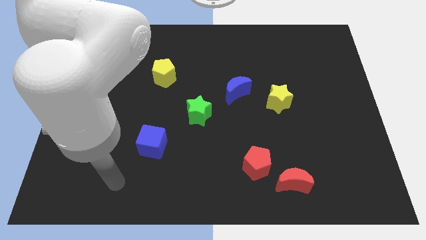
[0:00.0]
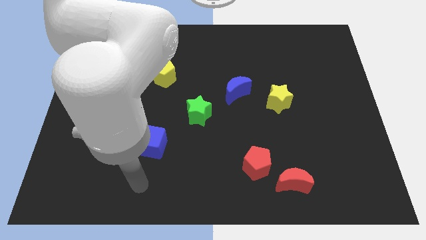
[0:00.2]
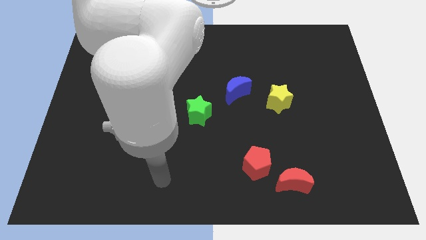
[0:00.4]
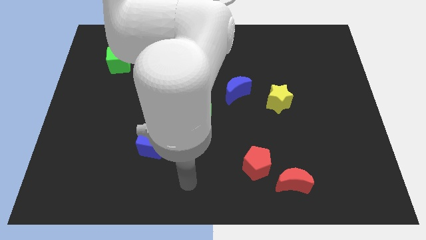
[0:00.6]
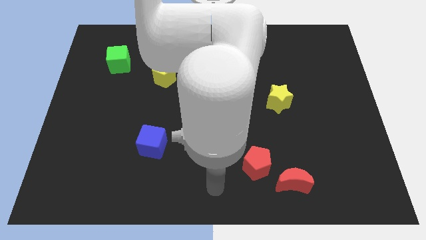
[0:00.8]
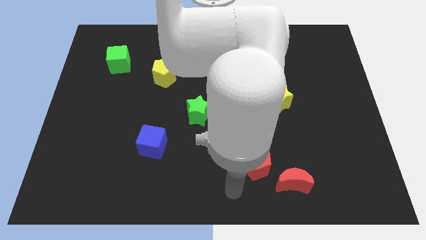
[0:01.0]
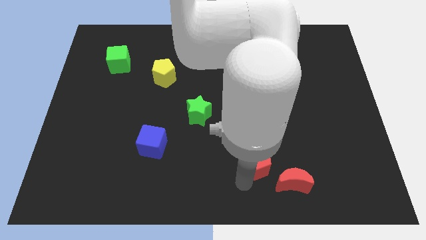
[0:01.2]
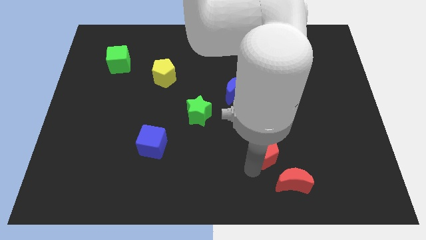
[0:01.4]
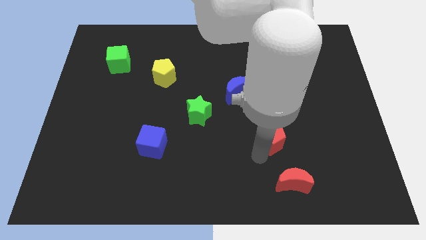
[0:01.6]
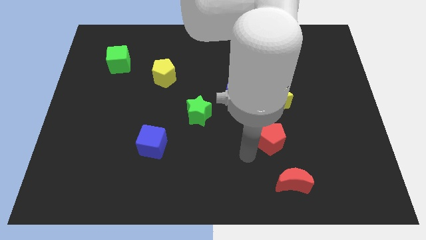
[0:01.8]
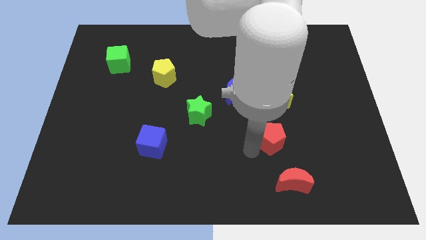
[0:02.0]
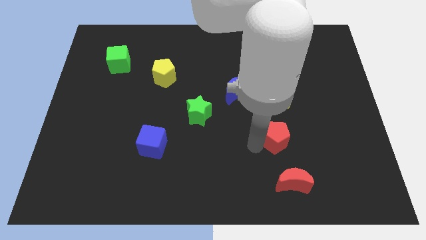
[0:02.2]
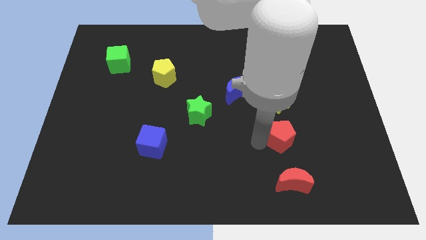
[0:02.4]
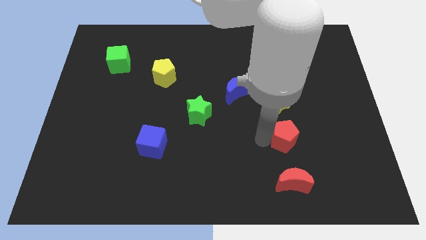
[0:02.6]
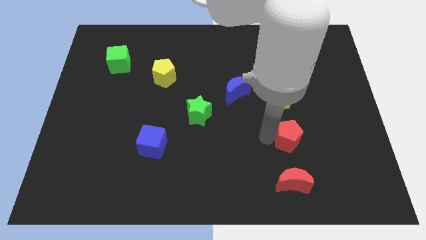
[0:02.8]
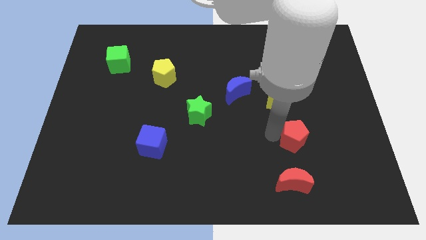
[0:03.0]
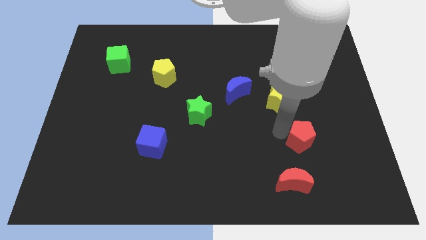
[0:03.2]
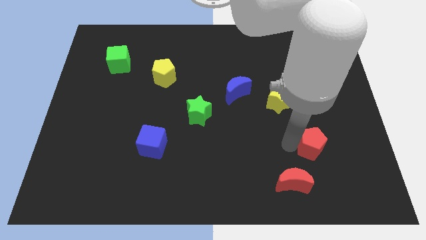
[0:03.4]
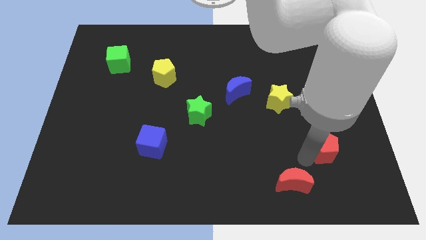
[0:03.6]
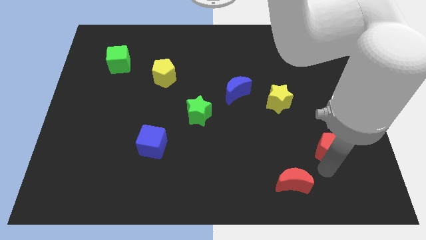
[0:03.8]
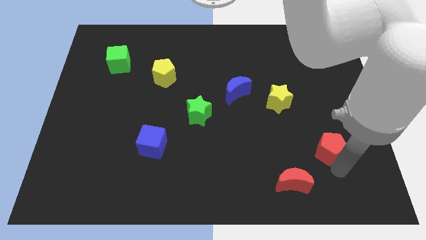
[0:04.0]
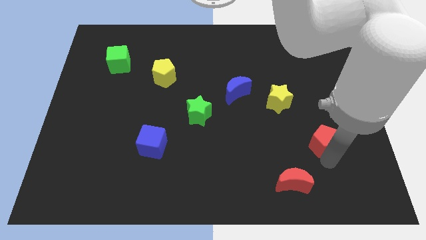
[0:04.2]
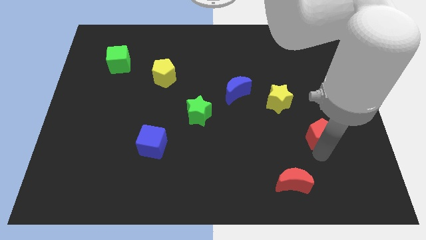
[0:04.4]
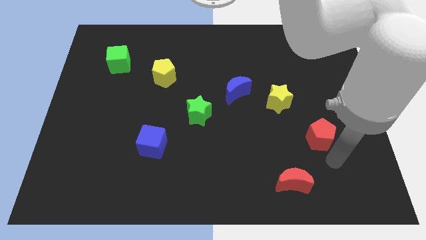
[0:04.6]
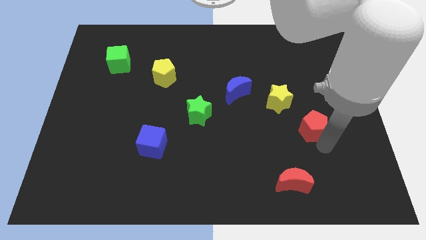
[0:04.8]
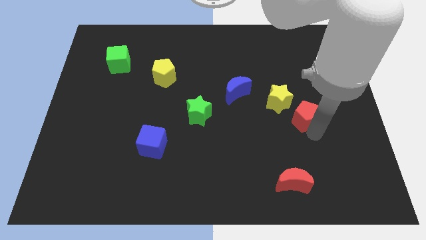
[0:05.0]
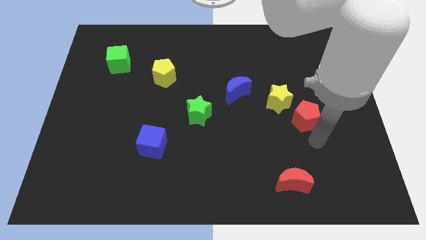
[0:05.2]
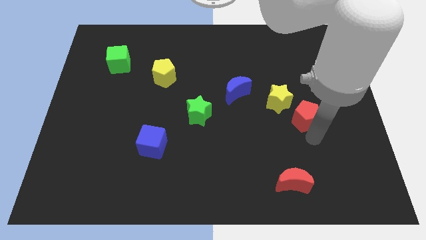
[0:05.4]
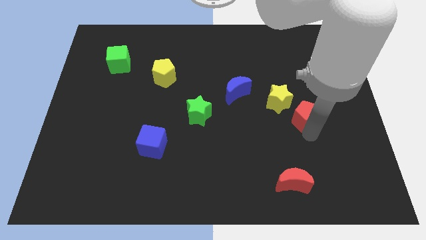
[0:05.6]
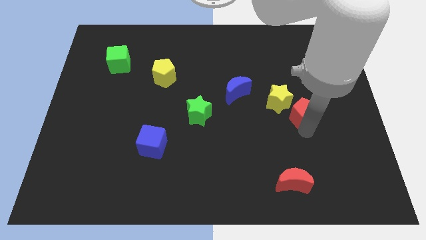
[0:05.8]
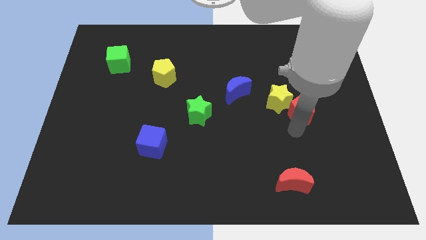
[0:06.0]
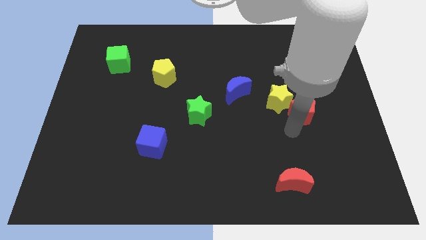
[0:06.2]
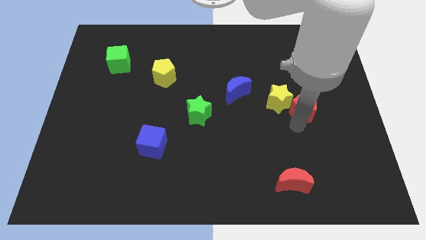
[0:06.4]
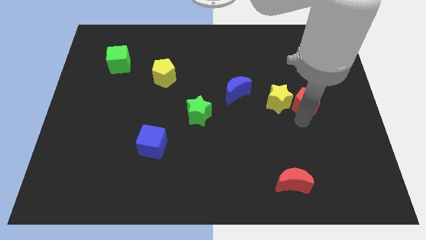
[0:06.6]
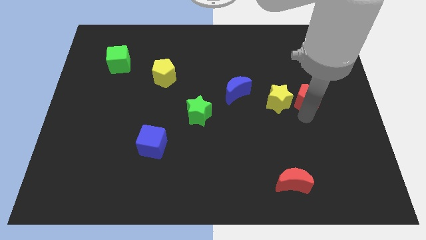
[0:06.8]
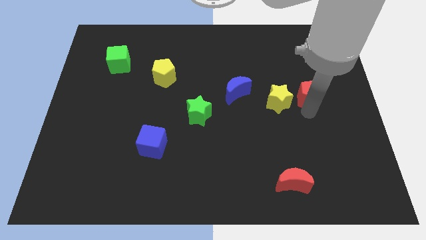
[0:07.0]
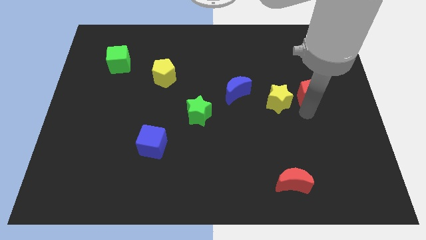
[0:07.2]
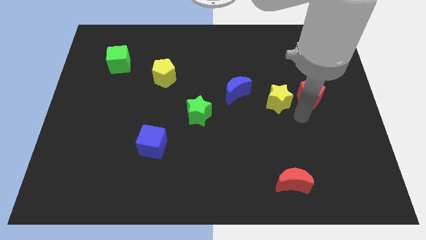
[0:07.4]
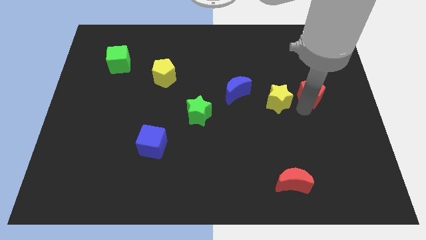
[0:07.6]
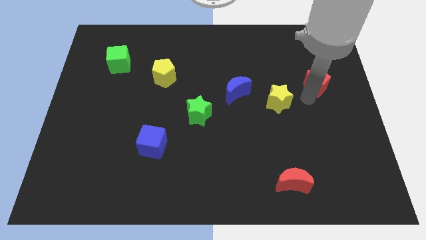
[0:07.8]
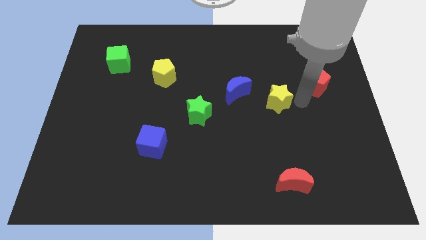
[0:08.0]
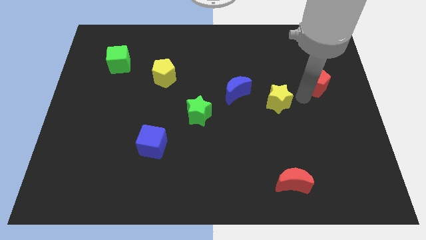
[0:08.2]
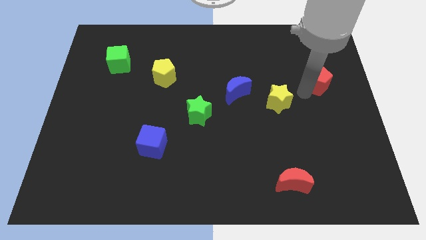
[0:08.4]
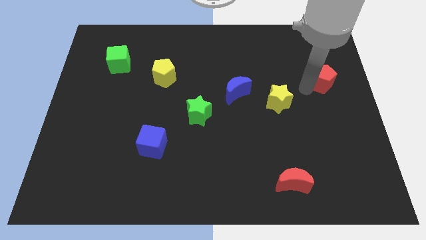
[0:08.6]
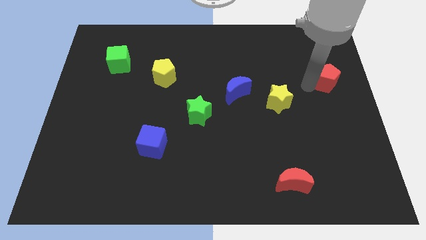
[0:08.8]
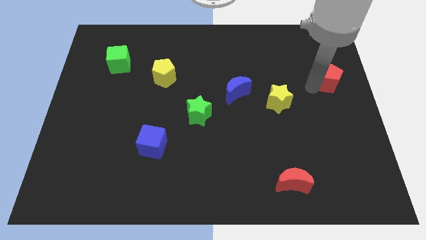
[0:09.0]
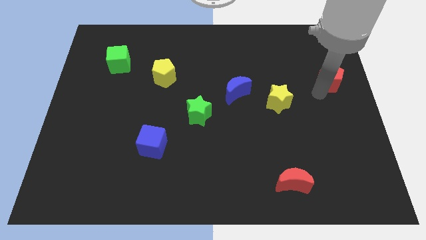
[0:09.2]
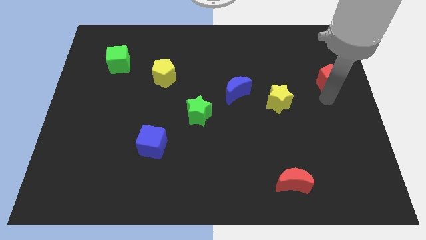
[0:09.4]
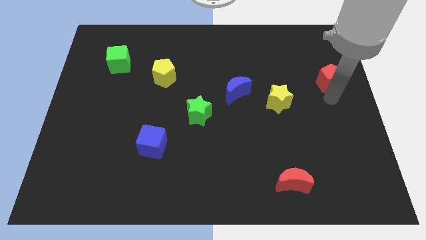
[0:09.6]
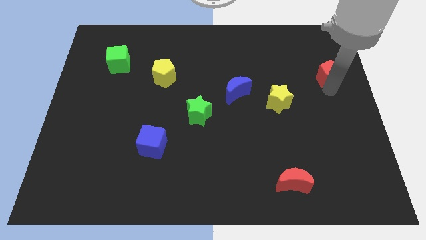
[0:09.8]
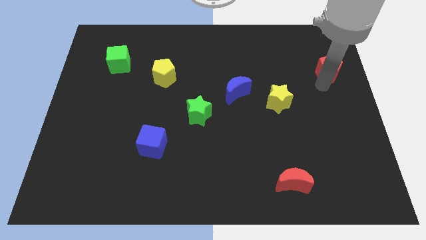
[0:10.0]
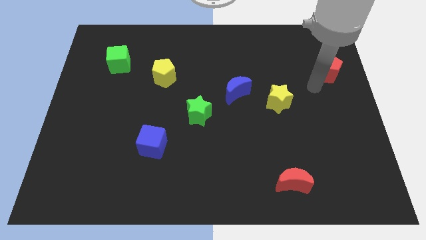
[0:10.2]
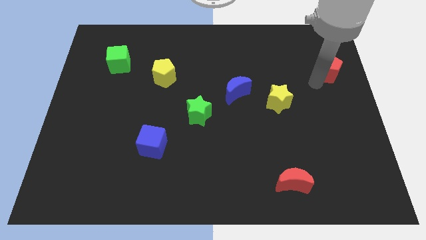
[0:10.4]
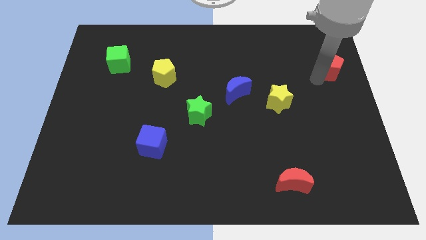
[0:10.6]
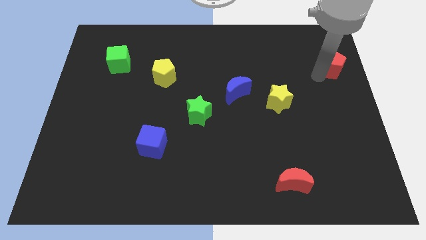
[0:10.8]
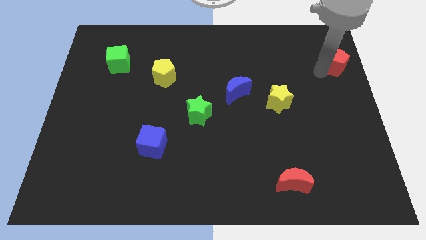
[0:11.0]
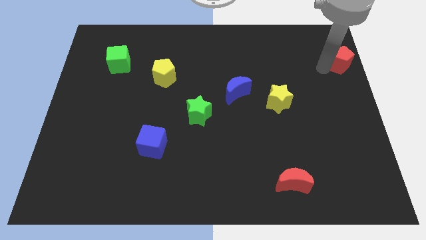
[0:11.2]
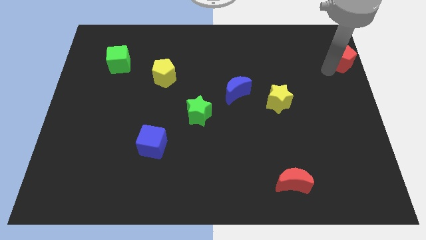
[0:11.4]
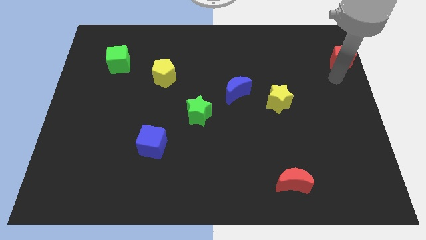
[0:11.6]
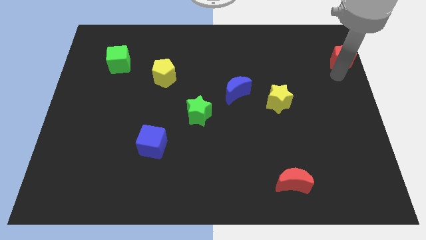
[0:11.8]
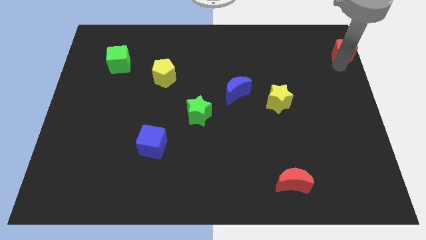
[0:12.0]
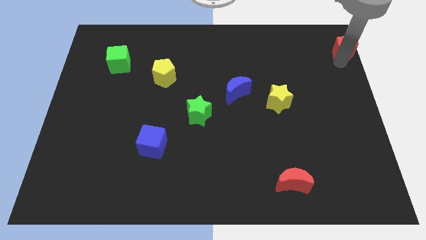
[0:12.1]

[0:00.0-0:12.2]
slide the red pentagon to the upper right corner
